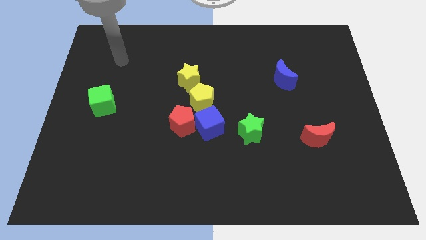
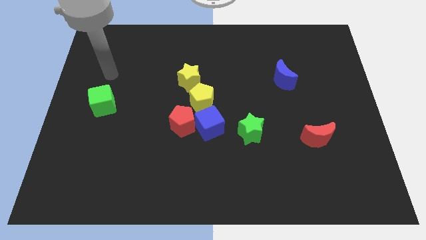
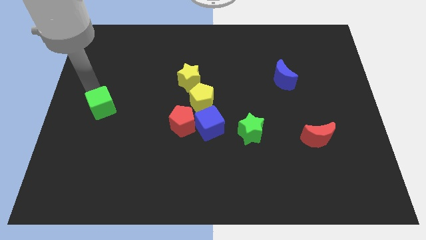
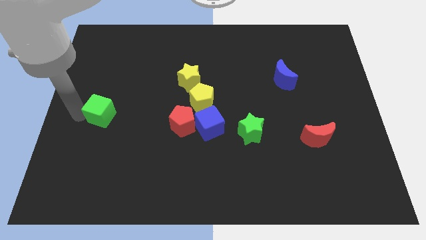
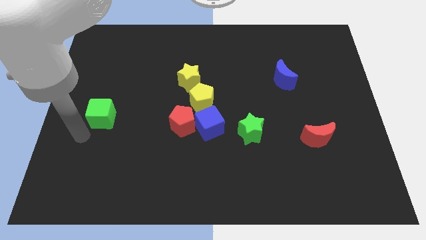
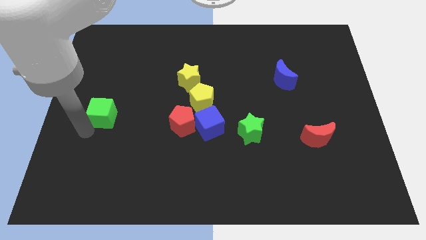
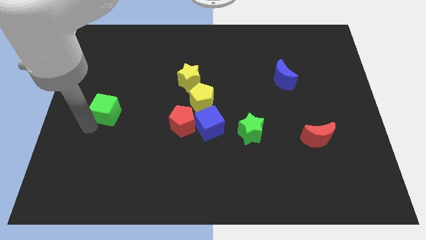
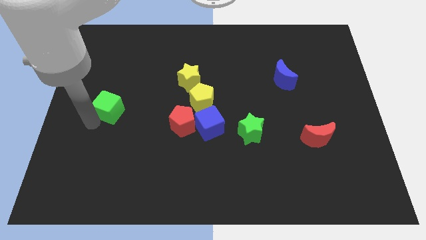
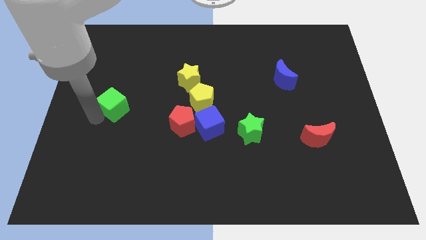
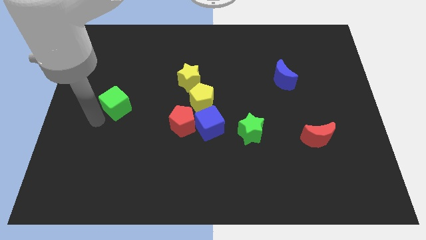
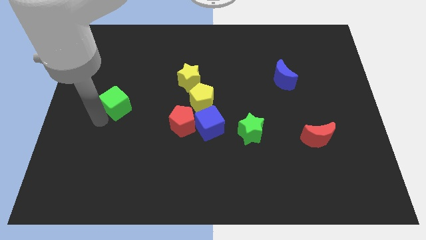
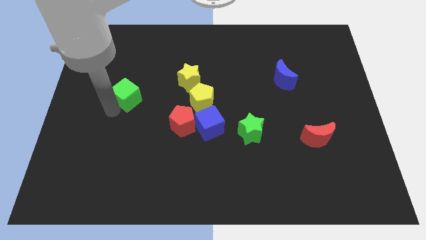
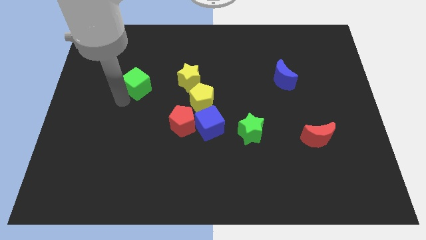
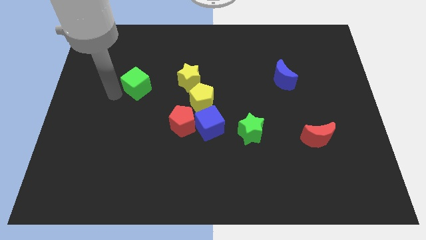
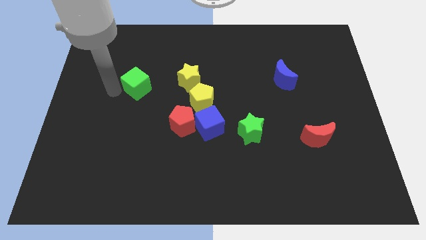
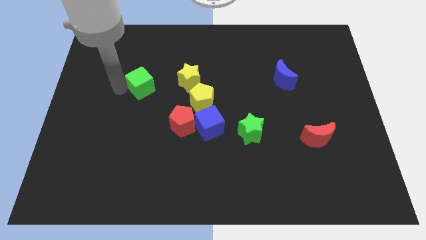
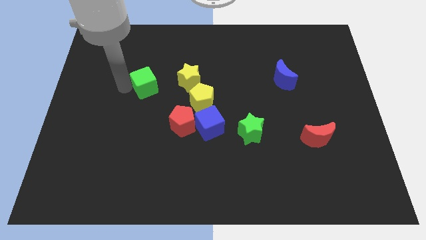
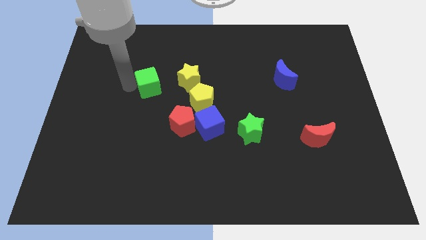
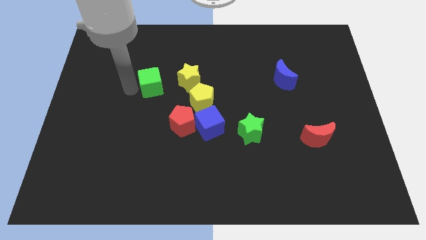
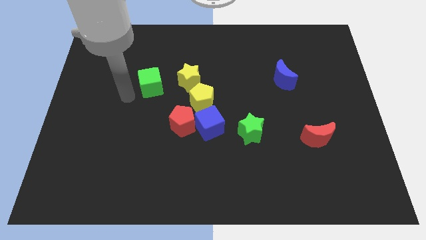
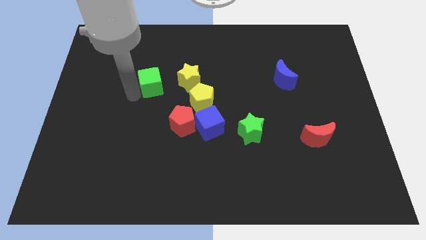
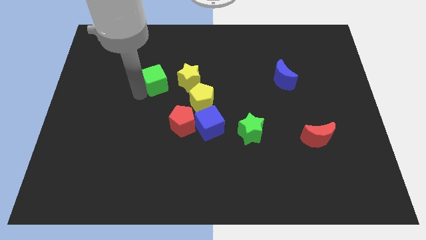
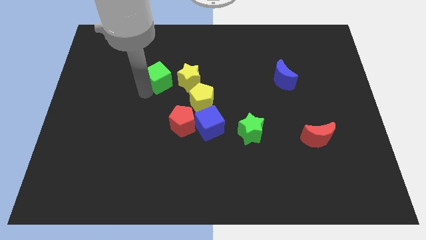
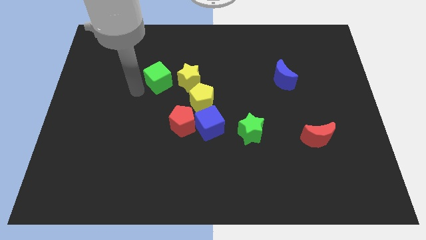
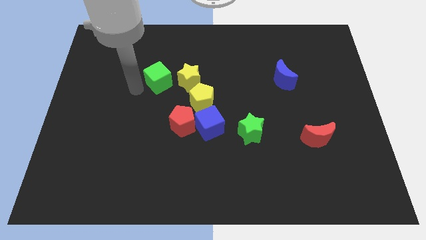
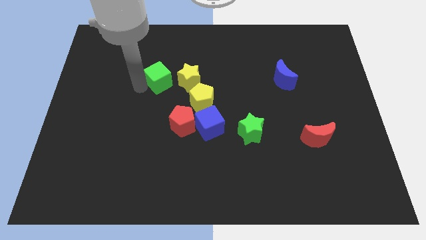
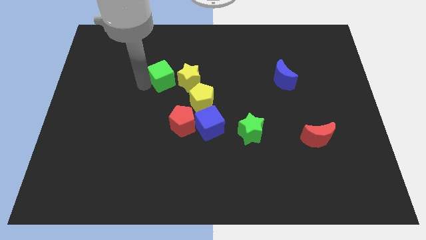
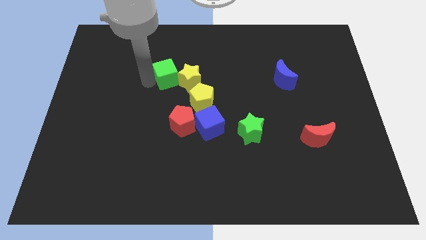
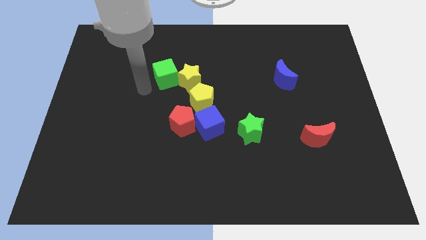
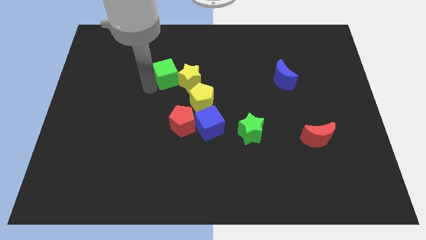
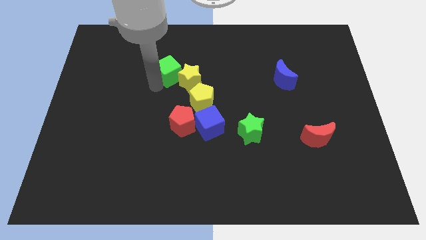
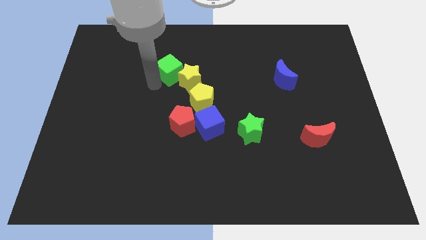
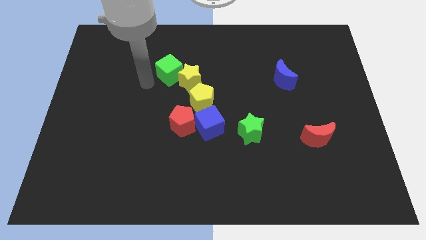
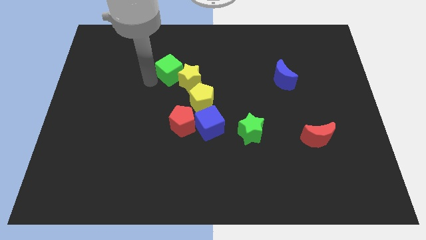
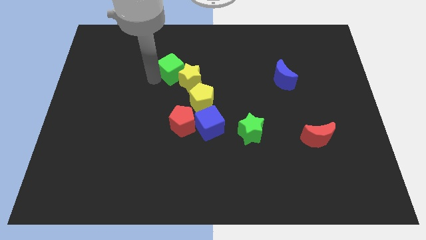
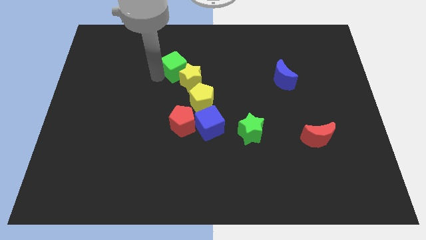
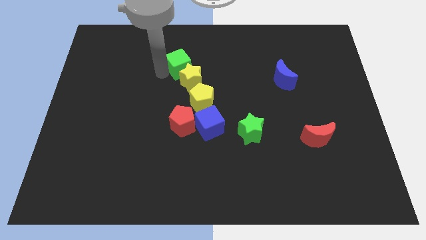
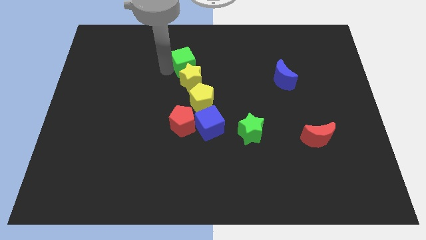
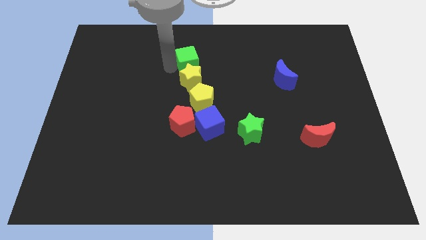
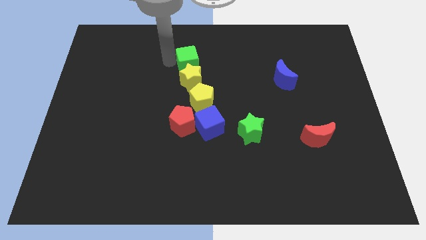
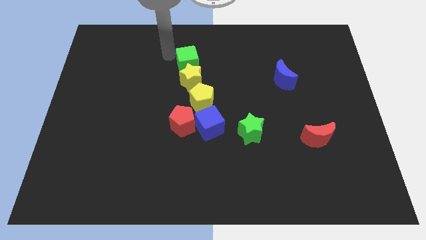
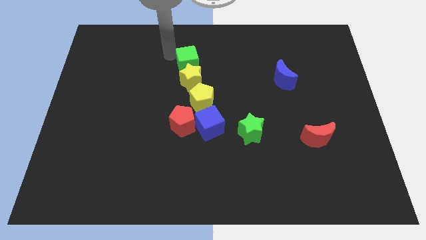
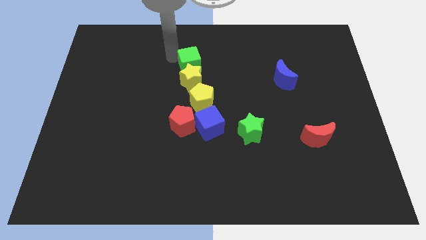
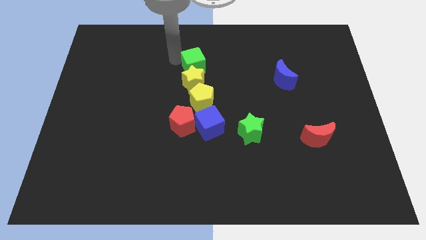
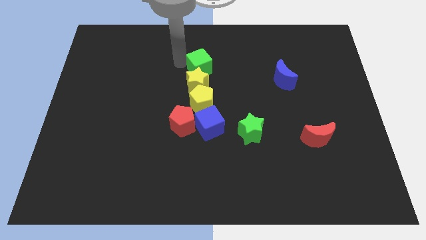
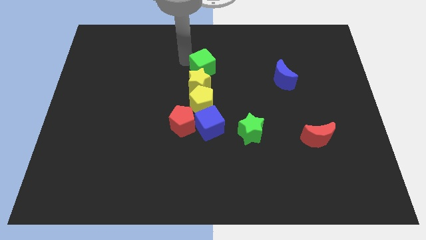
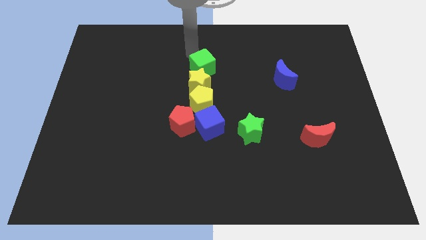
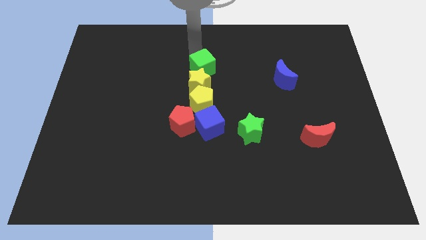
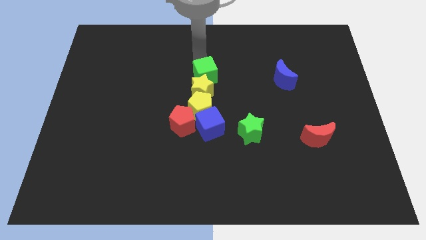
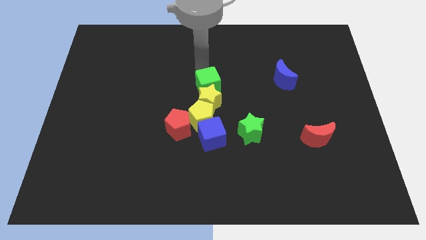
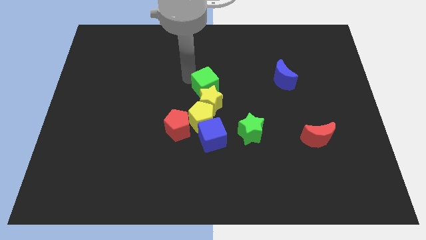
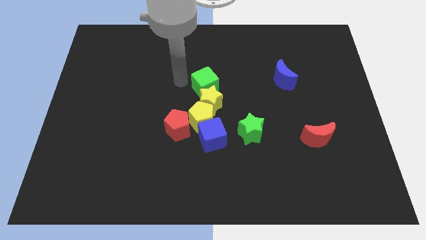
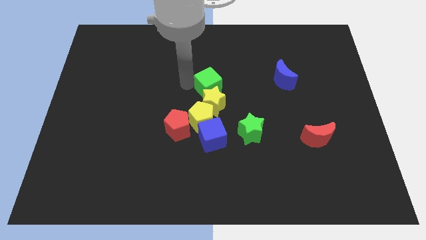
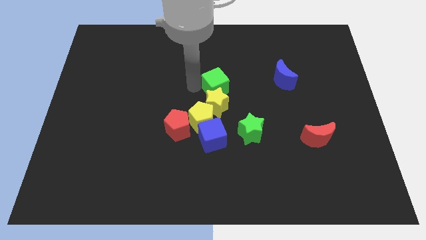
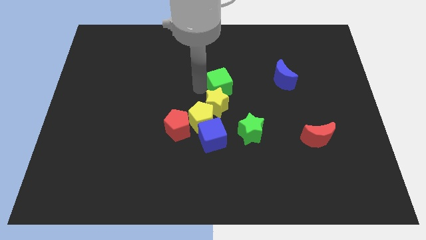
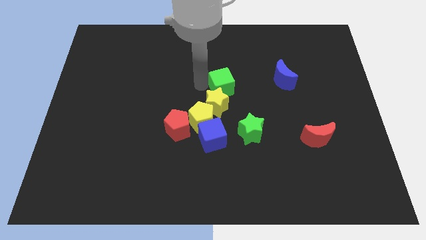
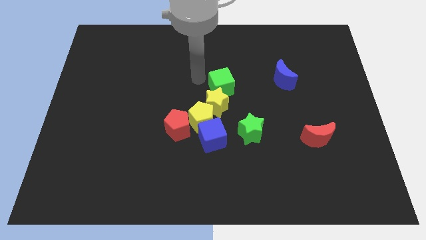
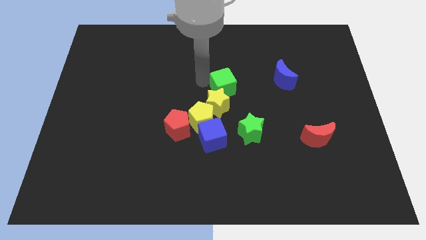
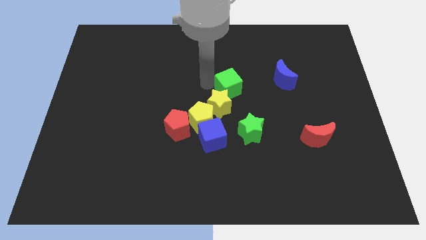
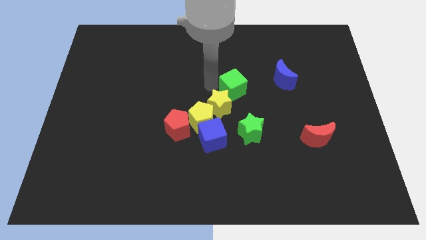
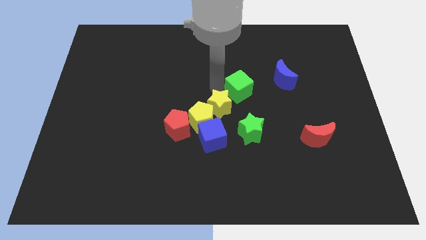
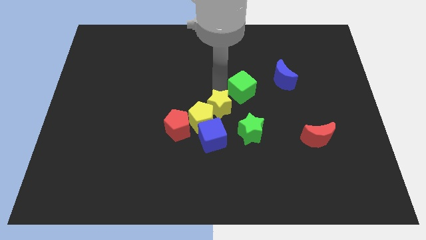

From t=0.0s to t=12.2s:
move the green cube to the bottom left side of the blue moon

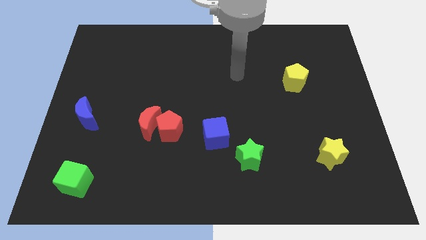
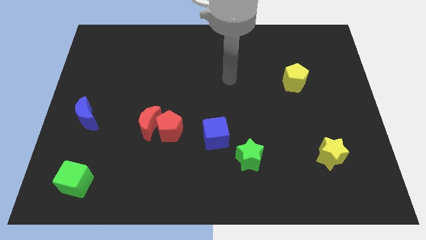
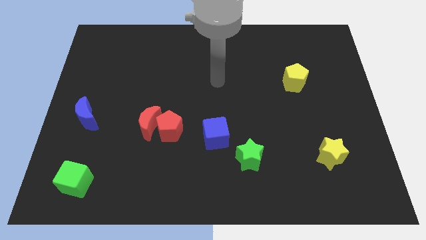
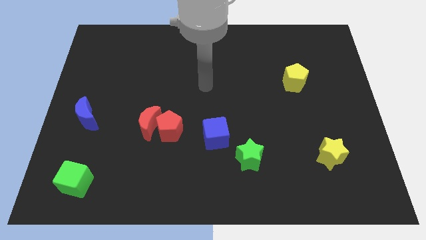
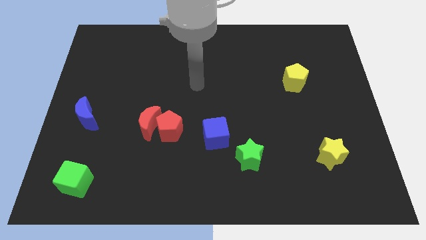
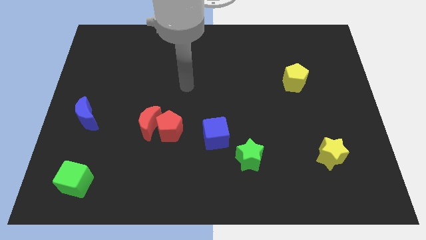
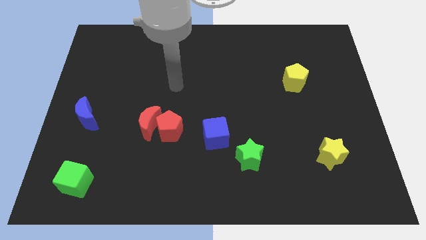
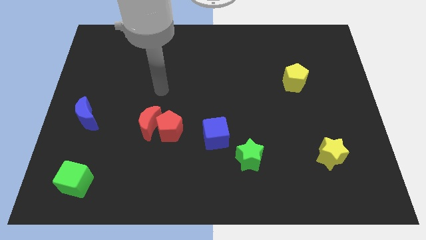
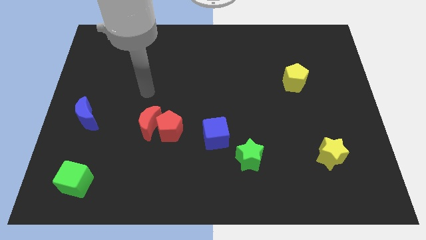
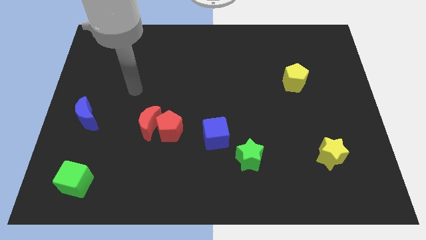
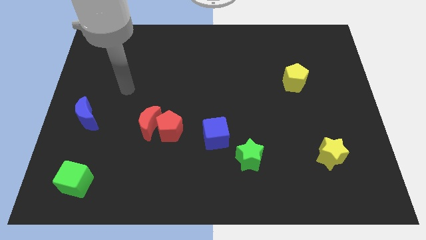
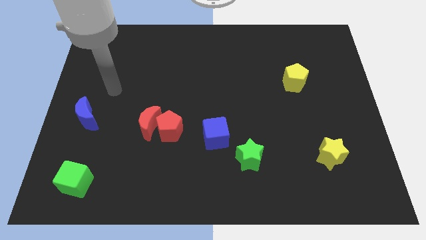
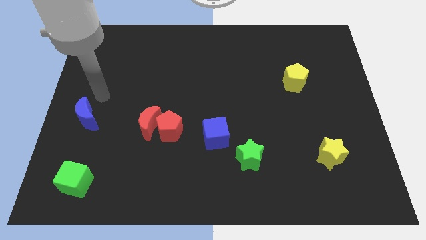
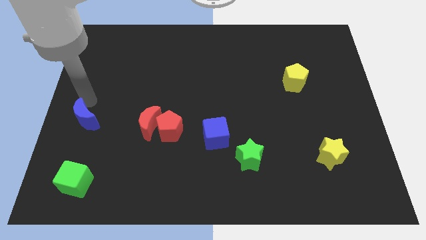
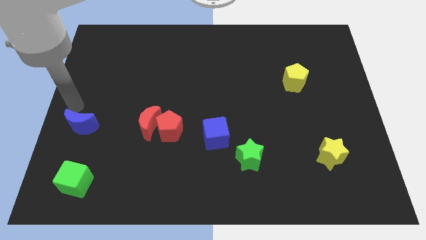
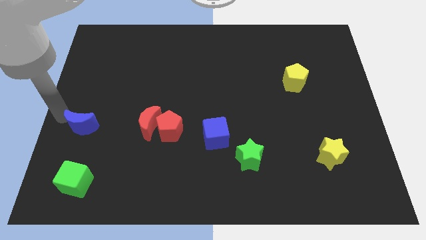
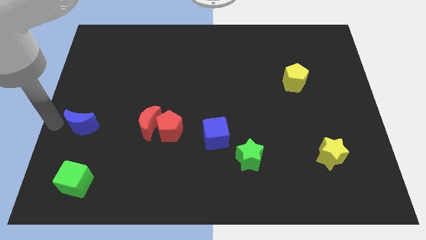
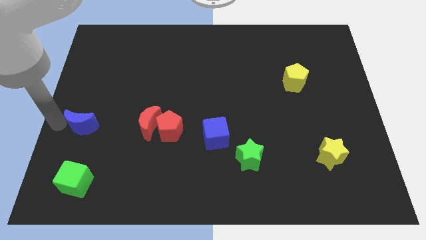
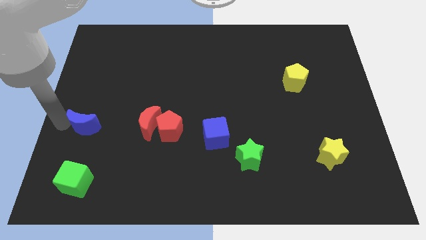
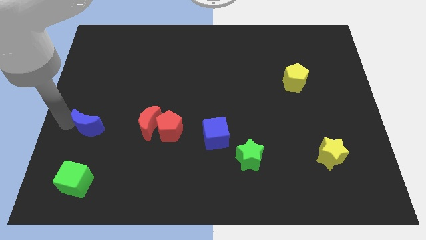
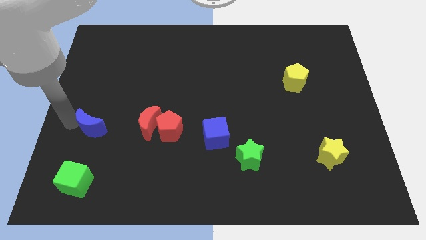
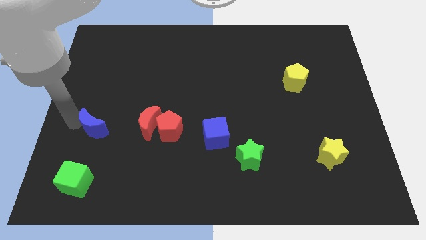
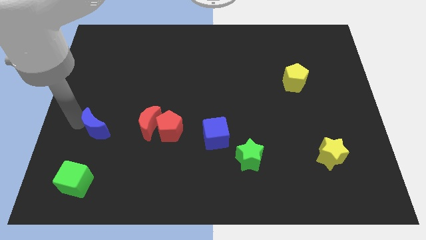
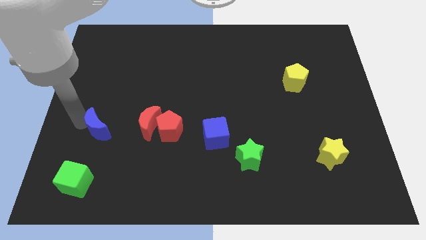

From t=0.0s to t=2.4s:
put the blue moon just left of the red pentagon
